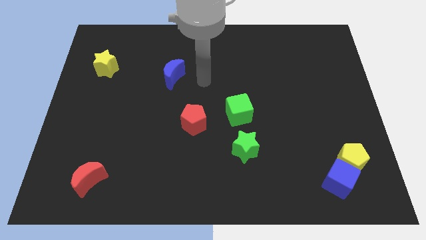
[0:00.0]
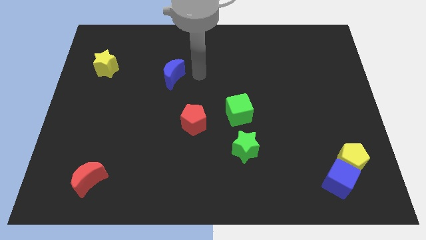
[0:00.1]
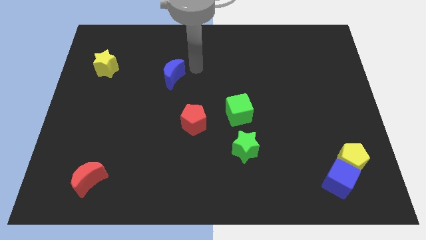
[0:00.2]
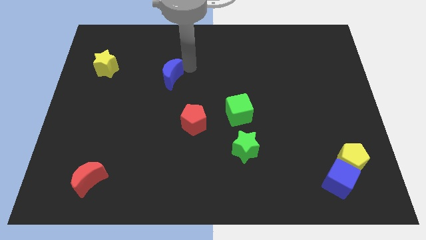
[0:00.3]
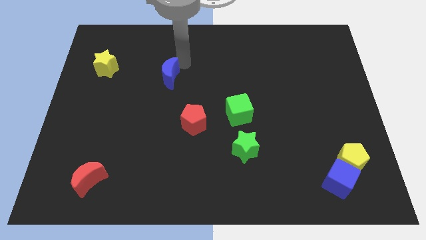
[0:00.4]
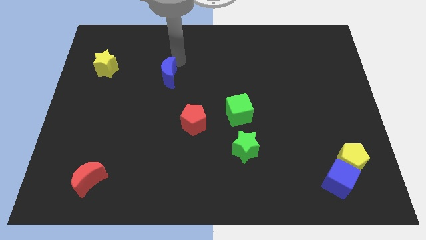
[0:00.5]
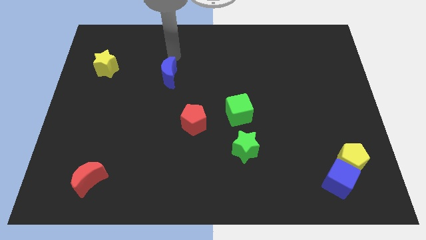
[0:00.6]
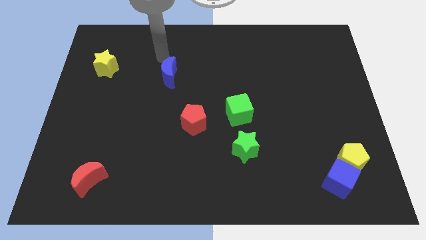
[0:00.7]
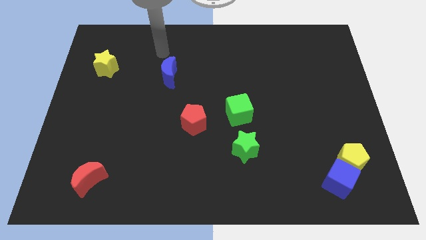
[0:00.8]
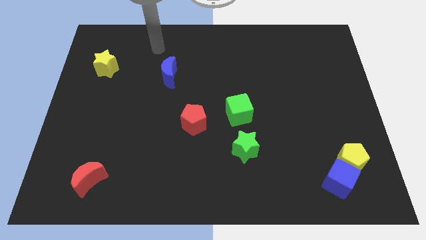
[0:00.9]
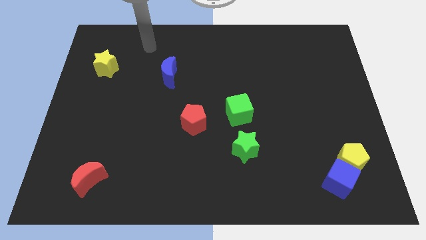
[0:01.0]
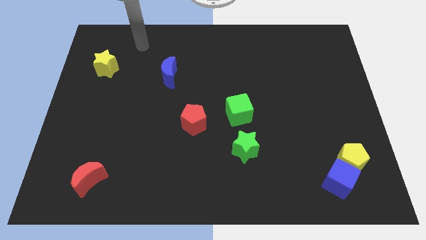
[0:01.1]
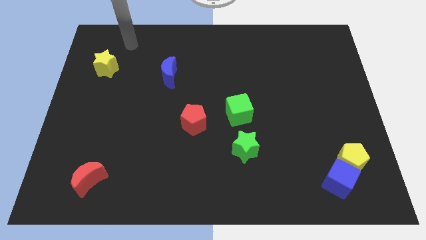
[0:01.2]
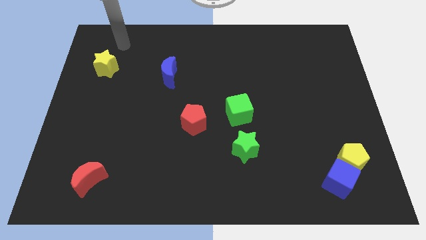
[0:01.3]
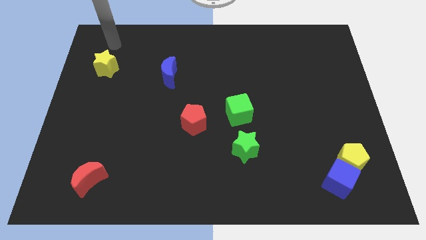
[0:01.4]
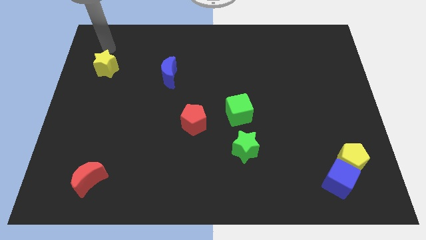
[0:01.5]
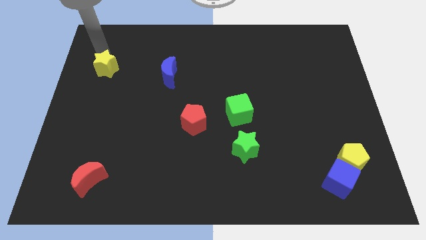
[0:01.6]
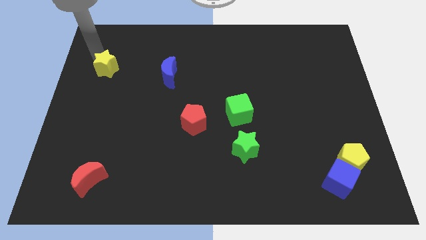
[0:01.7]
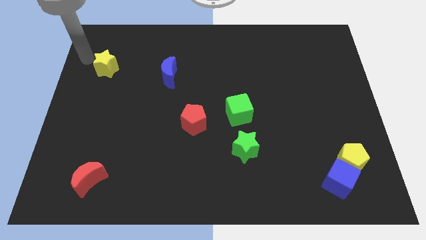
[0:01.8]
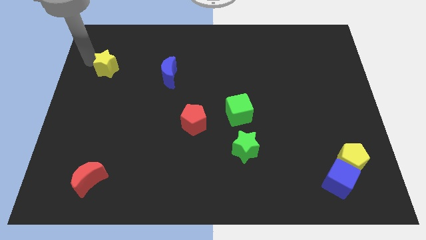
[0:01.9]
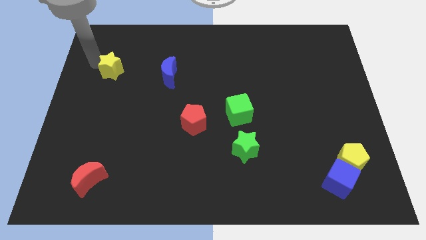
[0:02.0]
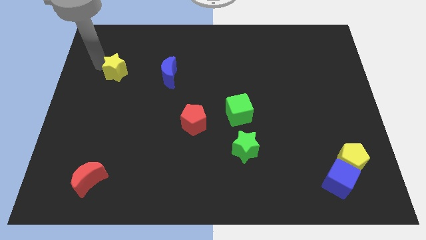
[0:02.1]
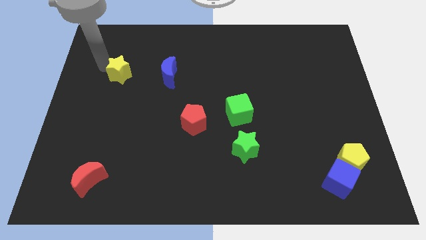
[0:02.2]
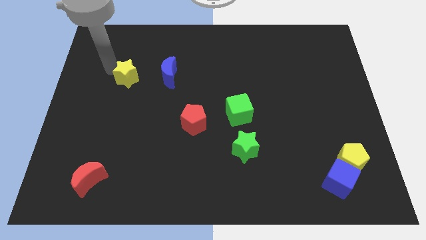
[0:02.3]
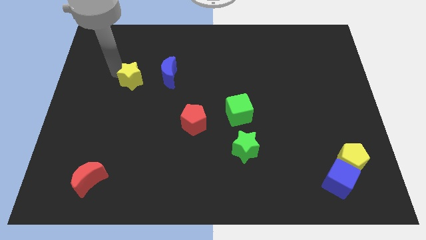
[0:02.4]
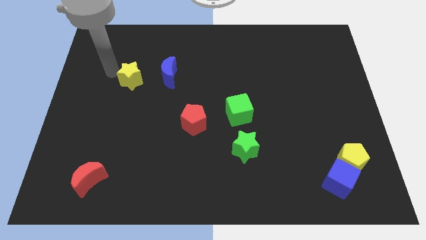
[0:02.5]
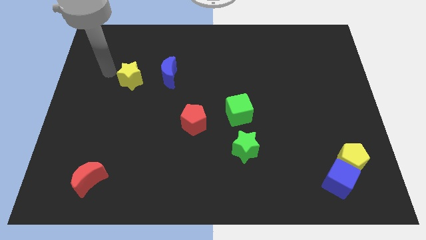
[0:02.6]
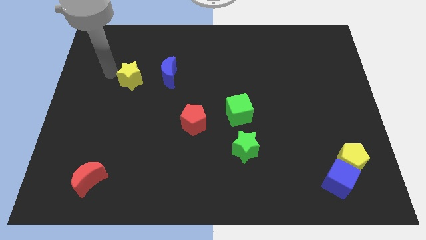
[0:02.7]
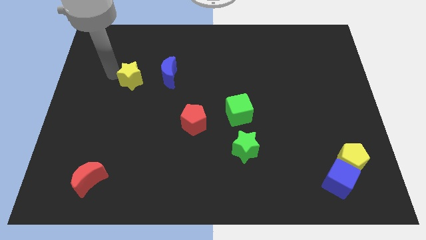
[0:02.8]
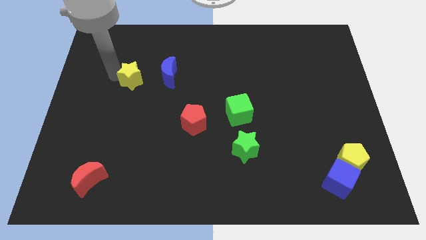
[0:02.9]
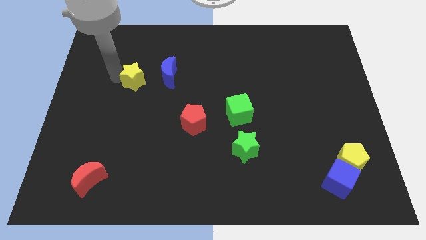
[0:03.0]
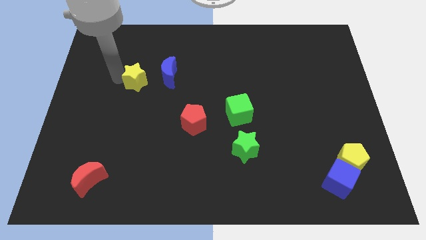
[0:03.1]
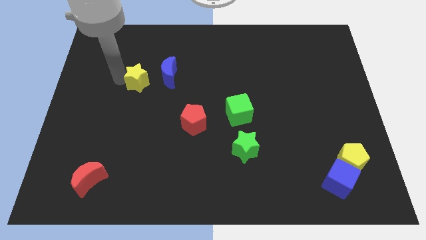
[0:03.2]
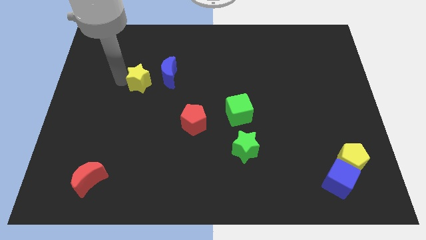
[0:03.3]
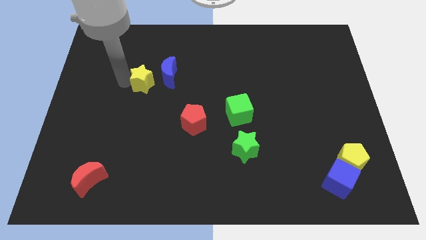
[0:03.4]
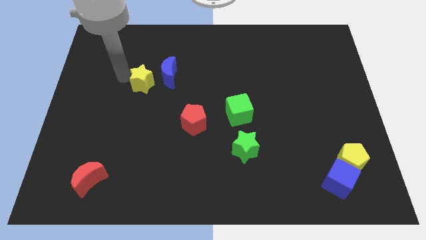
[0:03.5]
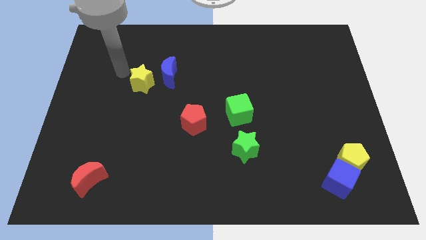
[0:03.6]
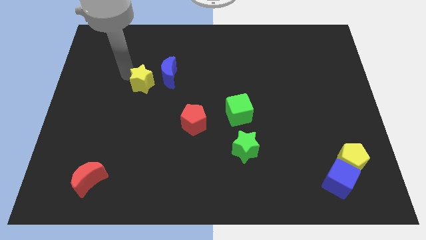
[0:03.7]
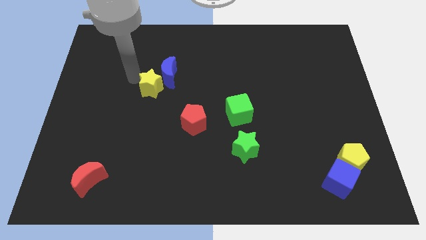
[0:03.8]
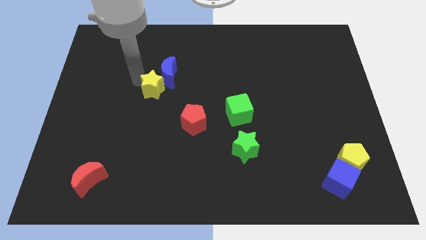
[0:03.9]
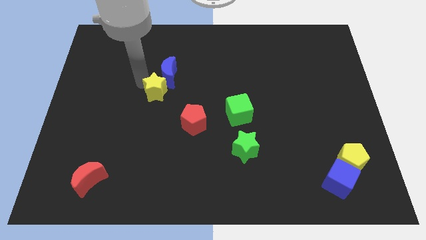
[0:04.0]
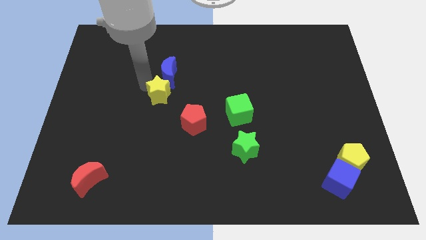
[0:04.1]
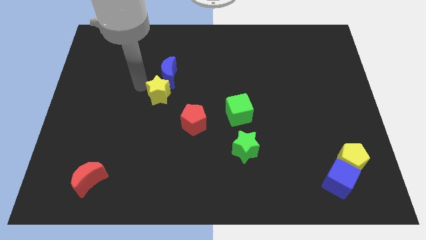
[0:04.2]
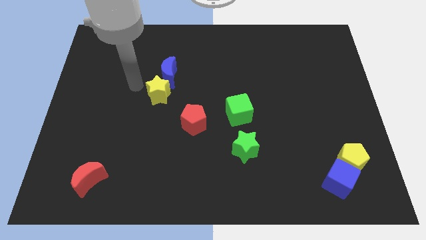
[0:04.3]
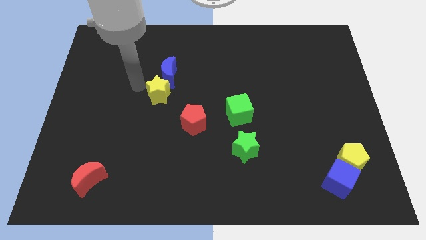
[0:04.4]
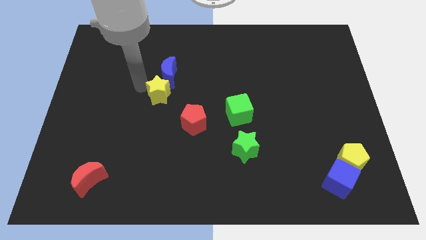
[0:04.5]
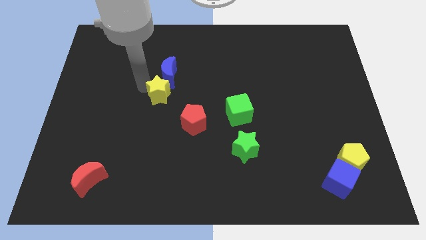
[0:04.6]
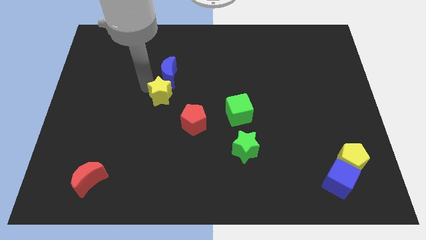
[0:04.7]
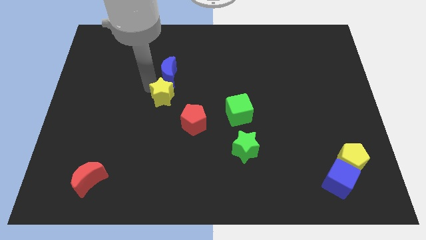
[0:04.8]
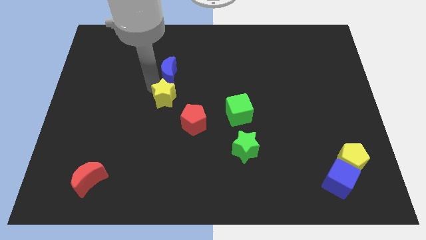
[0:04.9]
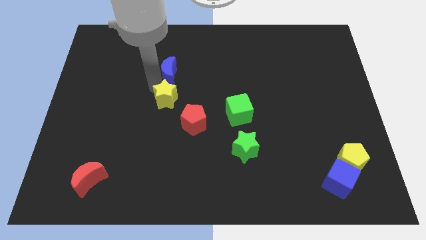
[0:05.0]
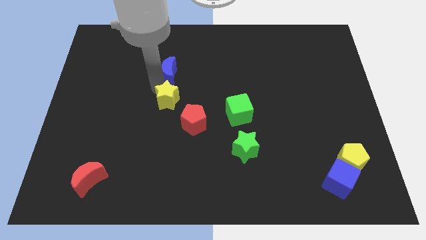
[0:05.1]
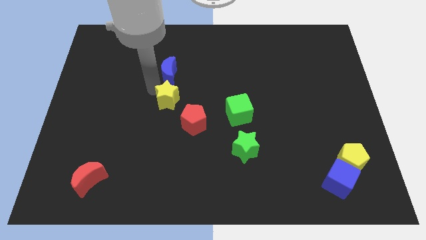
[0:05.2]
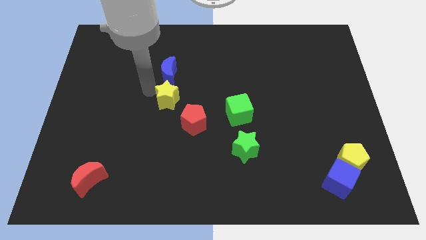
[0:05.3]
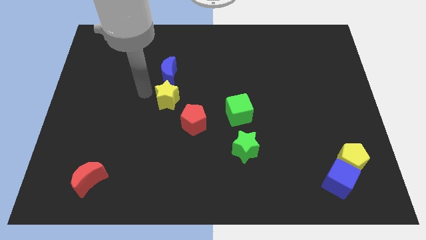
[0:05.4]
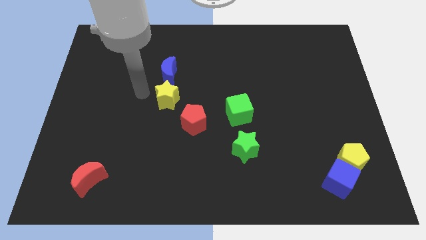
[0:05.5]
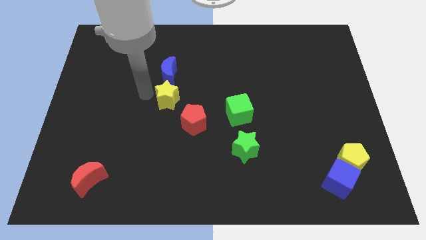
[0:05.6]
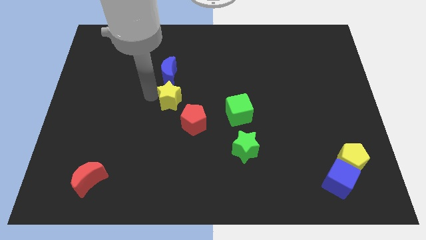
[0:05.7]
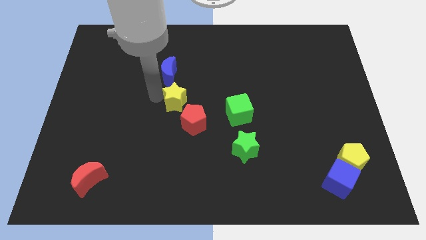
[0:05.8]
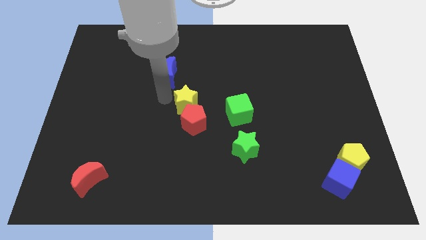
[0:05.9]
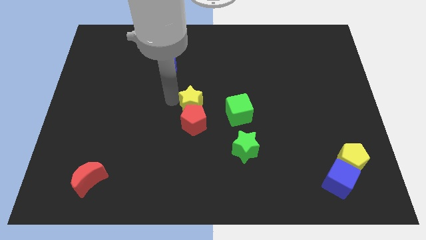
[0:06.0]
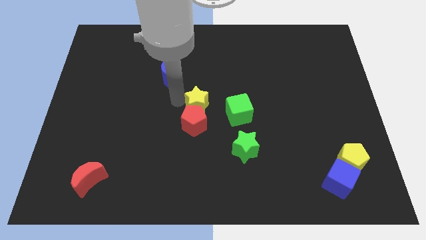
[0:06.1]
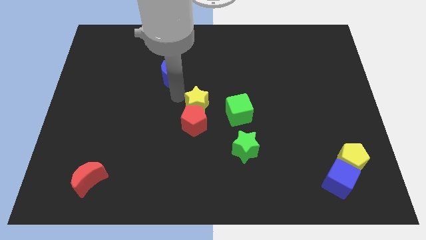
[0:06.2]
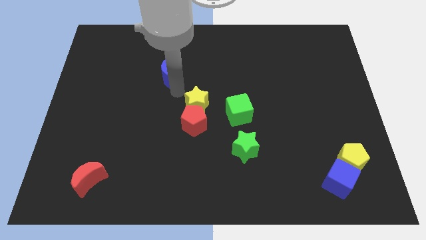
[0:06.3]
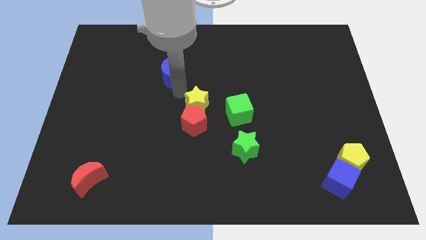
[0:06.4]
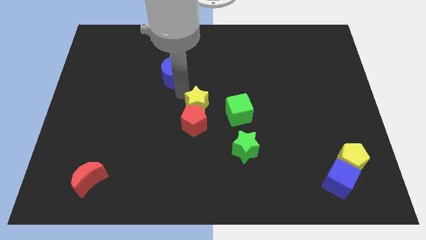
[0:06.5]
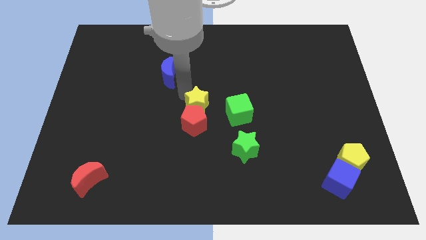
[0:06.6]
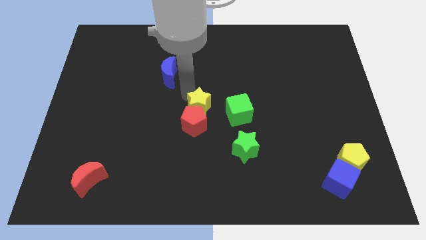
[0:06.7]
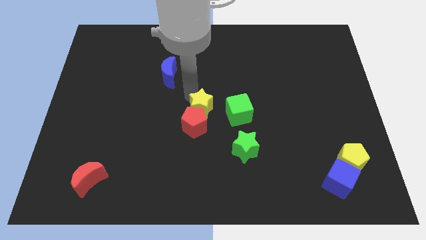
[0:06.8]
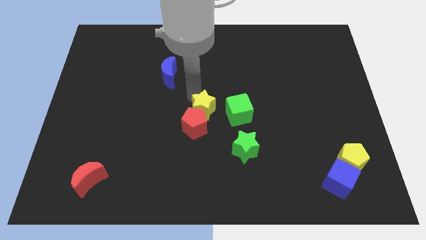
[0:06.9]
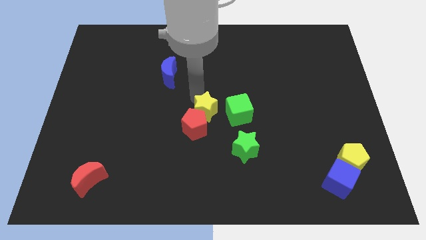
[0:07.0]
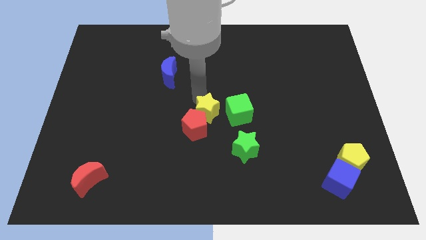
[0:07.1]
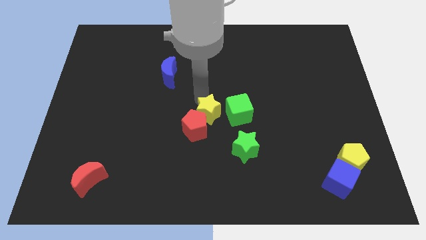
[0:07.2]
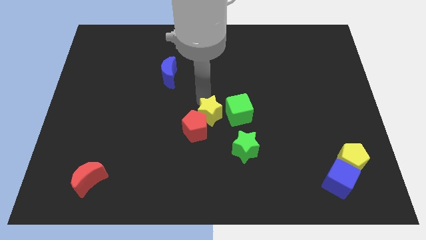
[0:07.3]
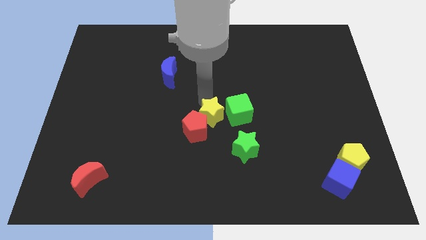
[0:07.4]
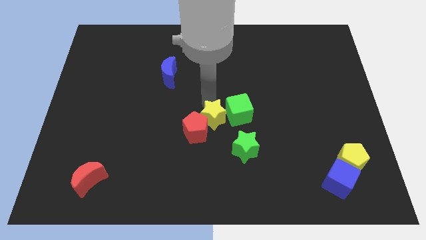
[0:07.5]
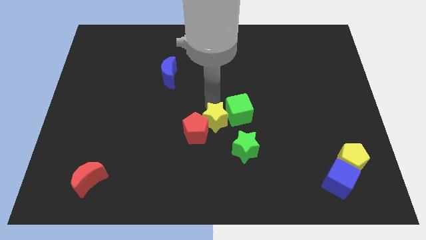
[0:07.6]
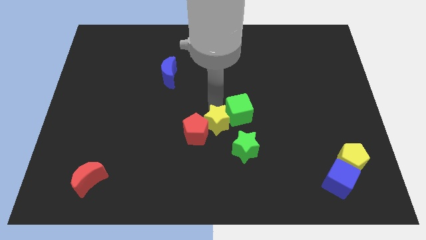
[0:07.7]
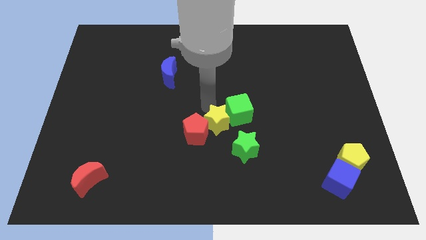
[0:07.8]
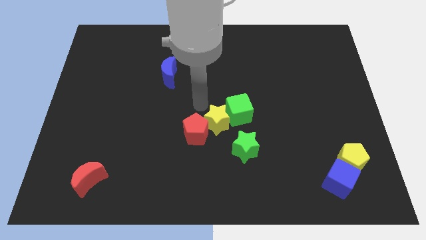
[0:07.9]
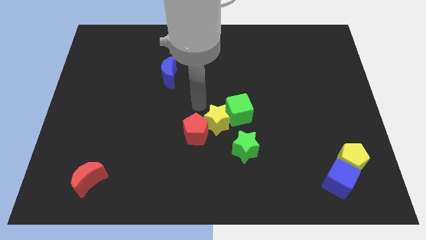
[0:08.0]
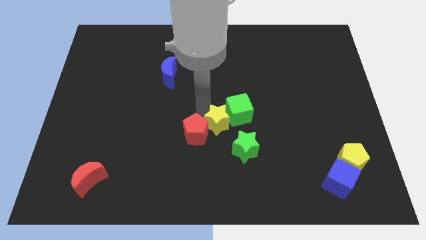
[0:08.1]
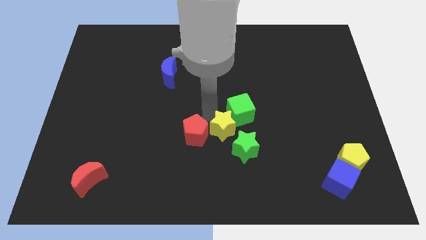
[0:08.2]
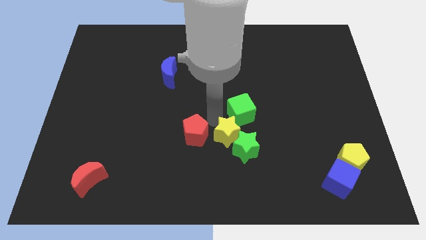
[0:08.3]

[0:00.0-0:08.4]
push the yellow star close to the green star
